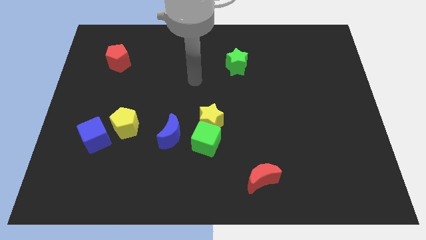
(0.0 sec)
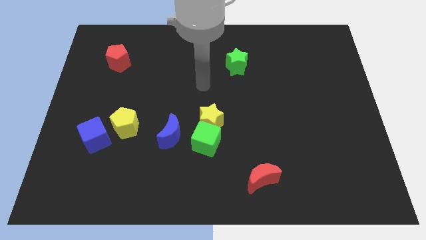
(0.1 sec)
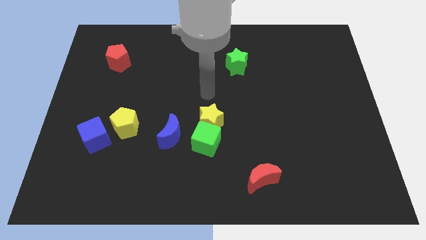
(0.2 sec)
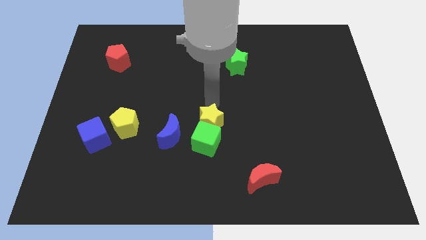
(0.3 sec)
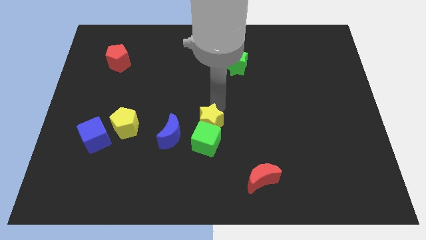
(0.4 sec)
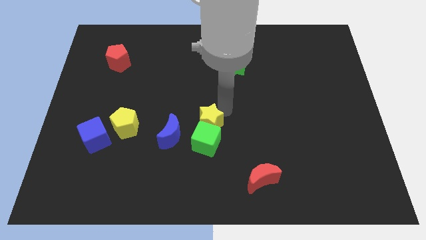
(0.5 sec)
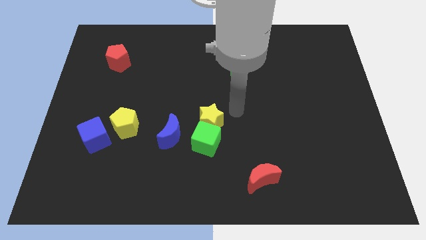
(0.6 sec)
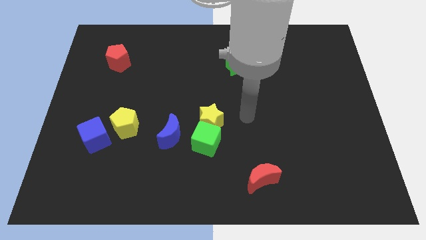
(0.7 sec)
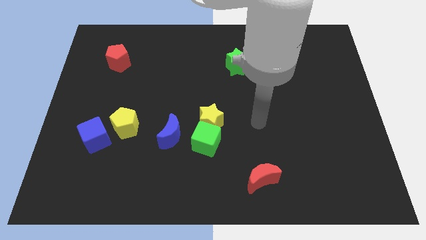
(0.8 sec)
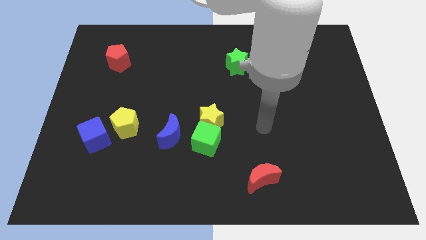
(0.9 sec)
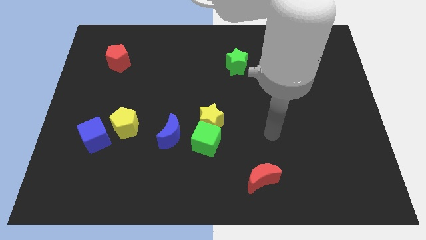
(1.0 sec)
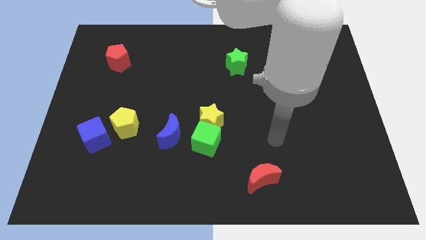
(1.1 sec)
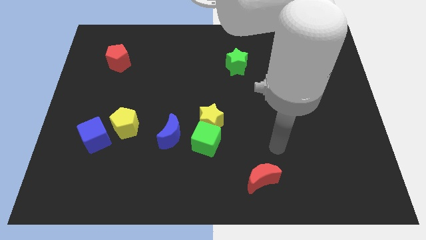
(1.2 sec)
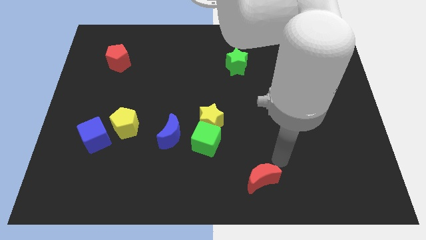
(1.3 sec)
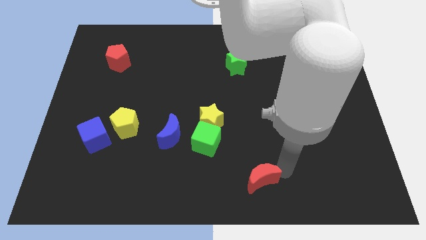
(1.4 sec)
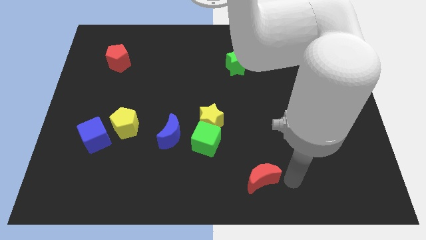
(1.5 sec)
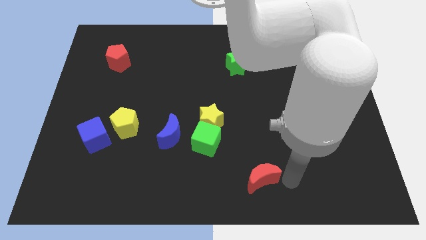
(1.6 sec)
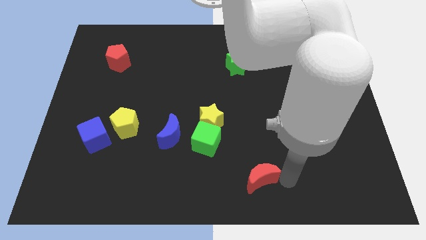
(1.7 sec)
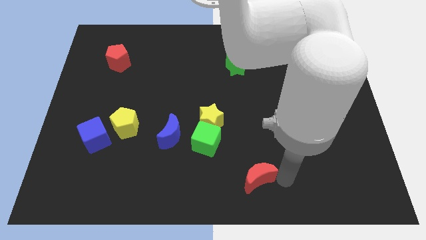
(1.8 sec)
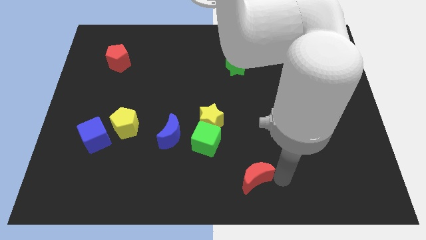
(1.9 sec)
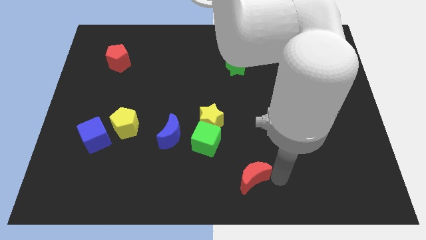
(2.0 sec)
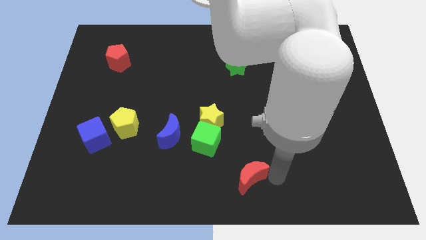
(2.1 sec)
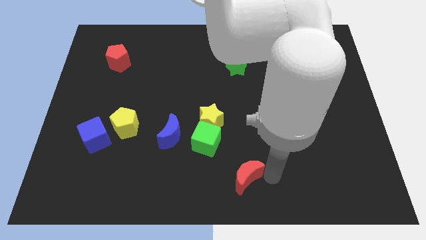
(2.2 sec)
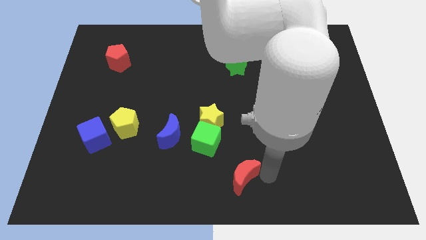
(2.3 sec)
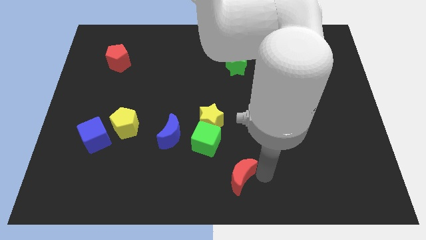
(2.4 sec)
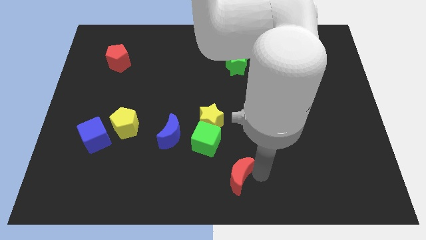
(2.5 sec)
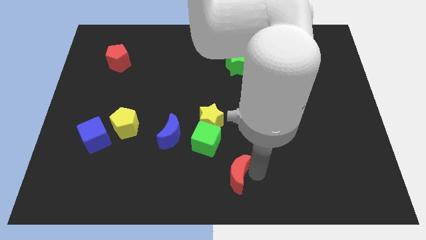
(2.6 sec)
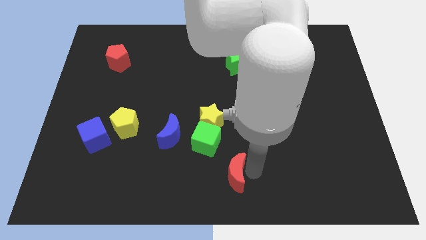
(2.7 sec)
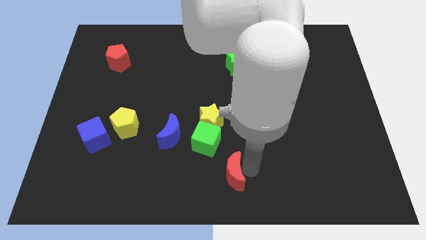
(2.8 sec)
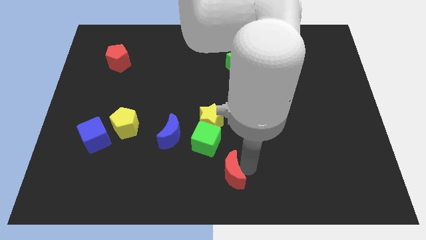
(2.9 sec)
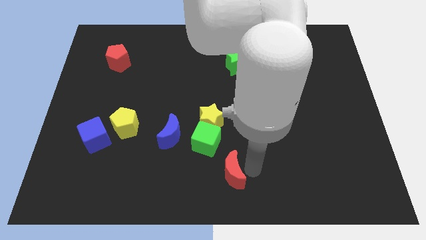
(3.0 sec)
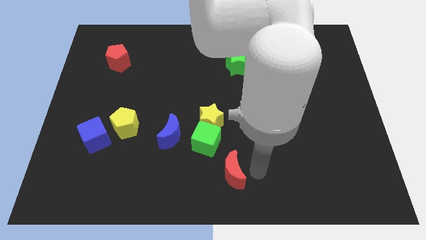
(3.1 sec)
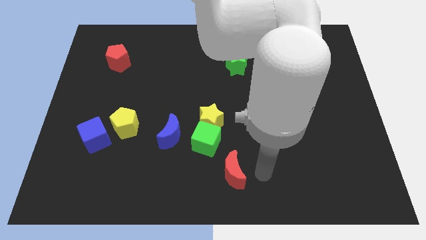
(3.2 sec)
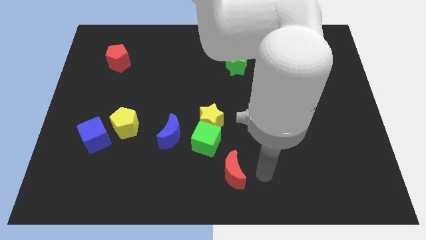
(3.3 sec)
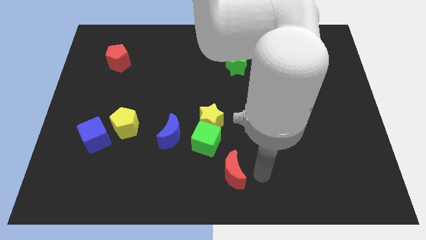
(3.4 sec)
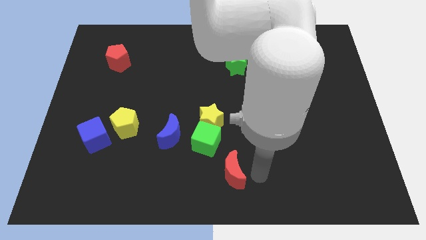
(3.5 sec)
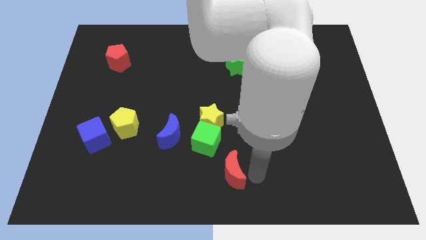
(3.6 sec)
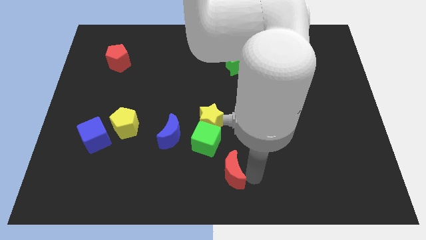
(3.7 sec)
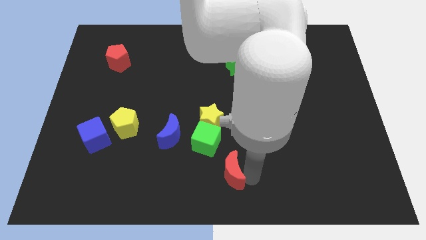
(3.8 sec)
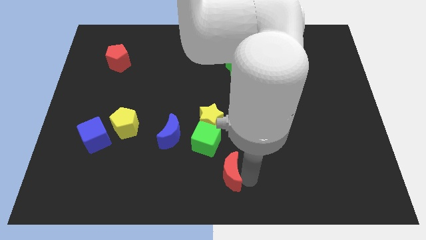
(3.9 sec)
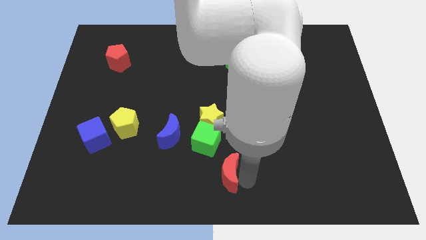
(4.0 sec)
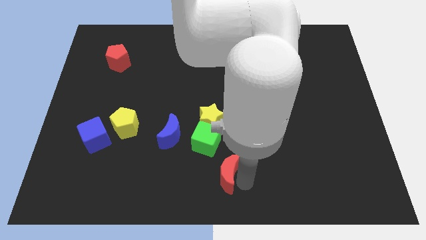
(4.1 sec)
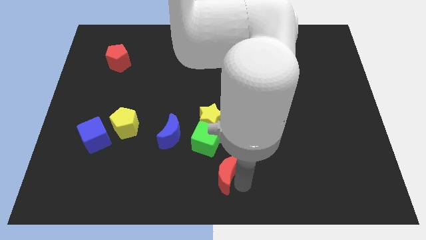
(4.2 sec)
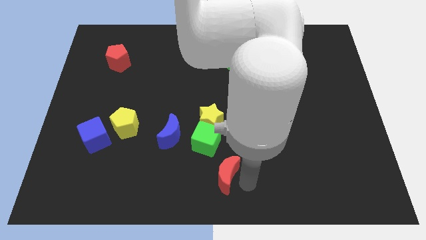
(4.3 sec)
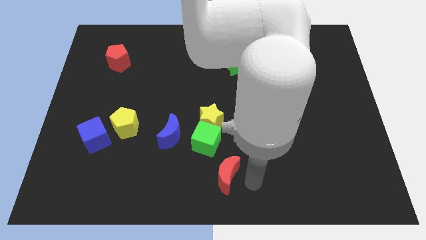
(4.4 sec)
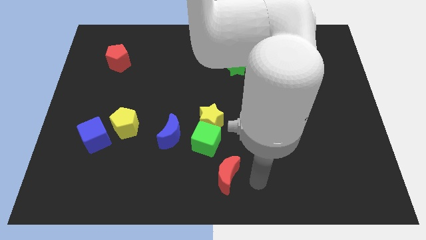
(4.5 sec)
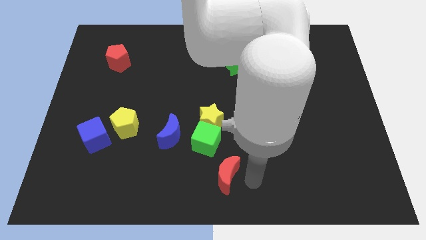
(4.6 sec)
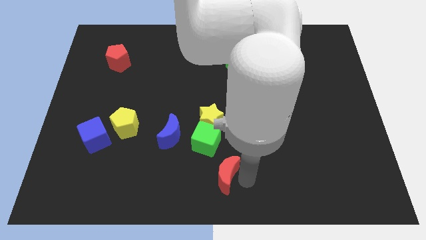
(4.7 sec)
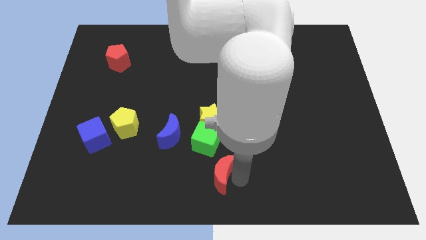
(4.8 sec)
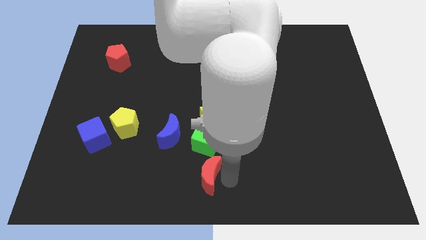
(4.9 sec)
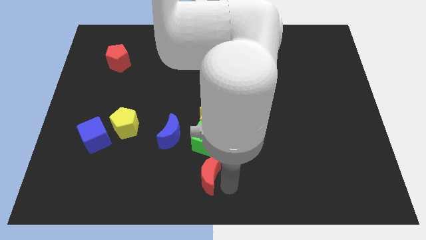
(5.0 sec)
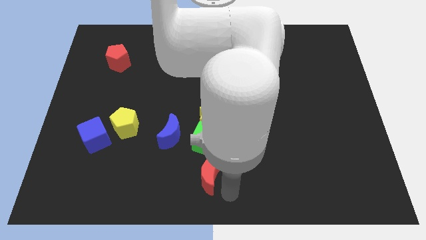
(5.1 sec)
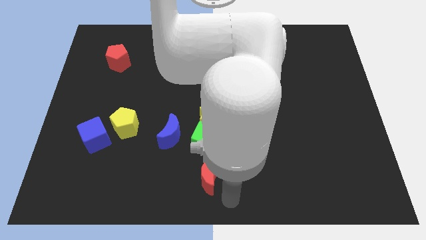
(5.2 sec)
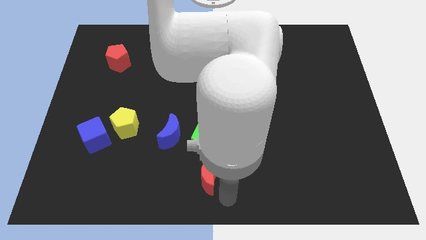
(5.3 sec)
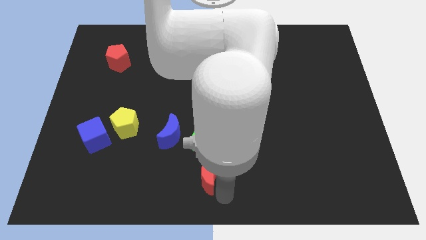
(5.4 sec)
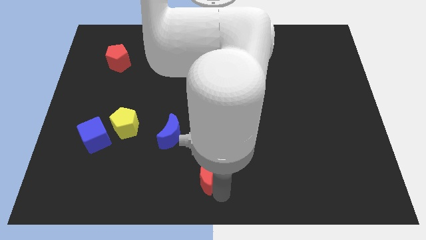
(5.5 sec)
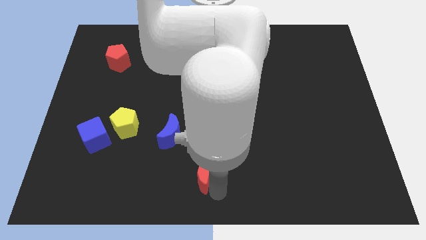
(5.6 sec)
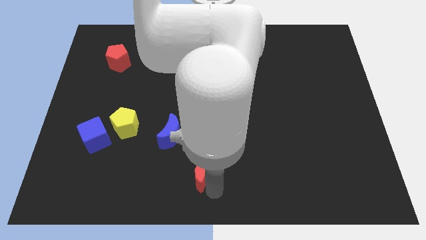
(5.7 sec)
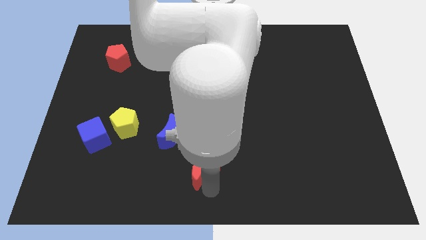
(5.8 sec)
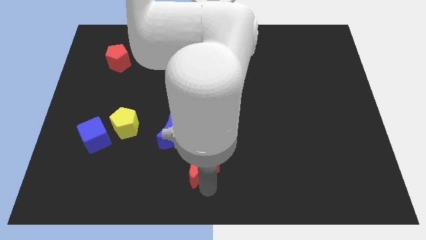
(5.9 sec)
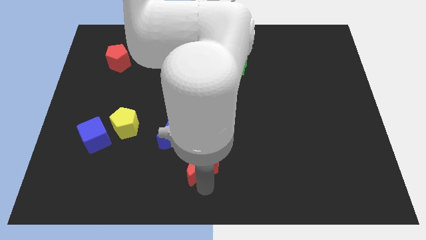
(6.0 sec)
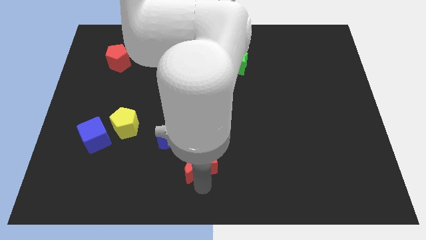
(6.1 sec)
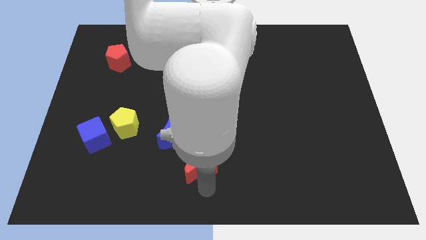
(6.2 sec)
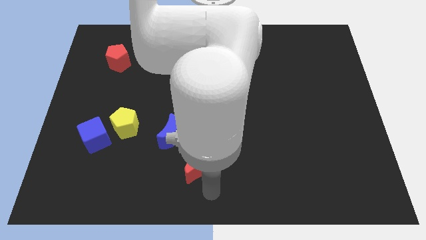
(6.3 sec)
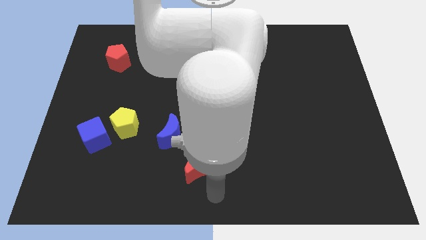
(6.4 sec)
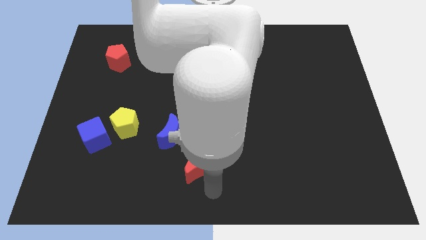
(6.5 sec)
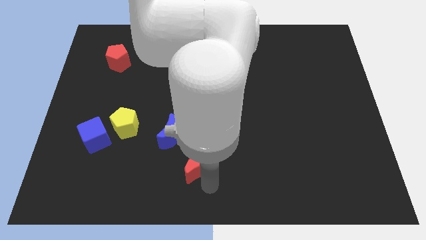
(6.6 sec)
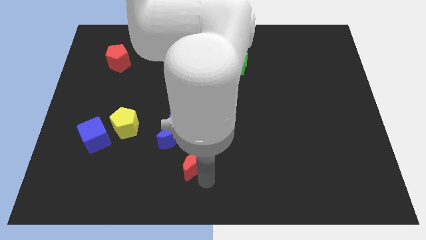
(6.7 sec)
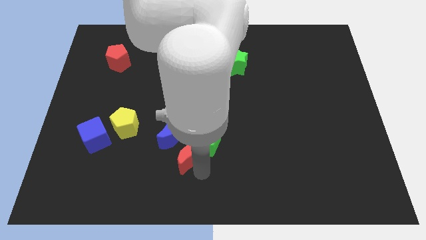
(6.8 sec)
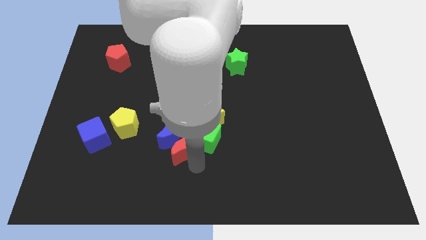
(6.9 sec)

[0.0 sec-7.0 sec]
put the red moon next to the blue moon

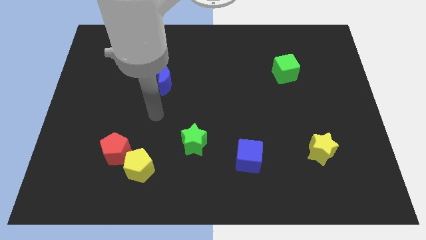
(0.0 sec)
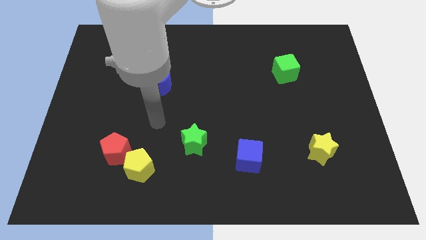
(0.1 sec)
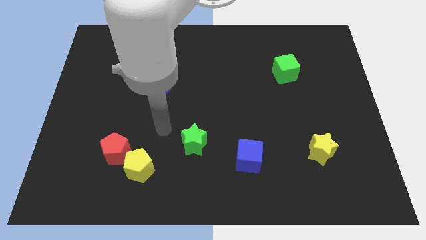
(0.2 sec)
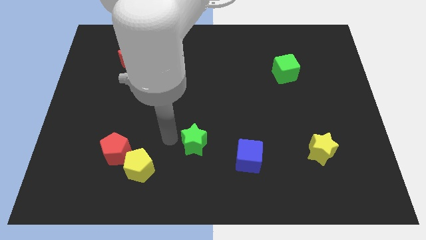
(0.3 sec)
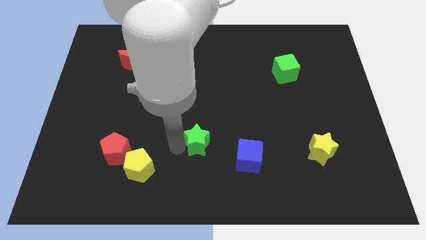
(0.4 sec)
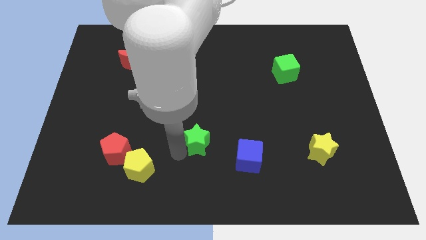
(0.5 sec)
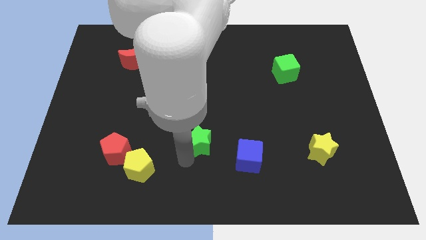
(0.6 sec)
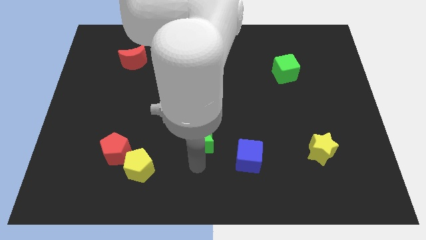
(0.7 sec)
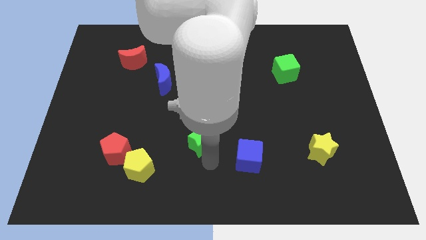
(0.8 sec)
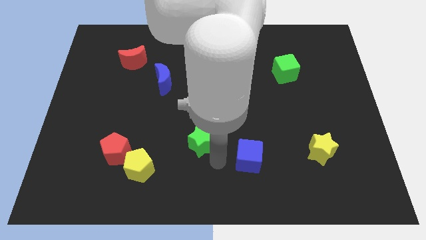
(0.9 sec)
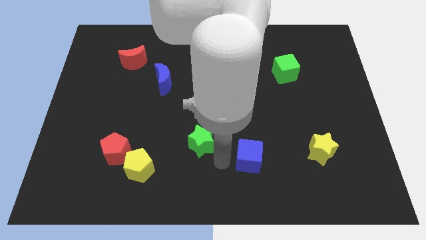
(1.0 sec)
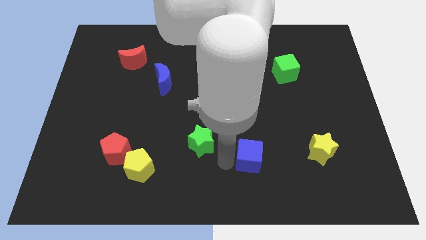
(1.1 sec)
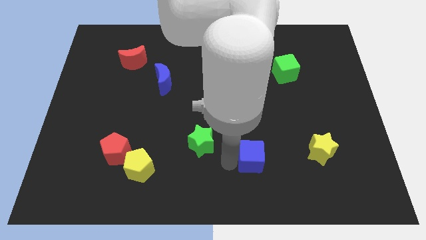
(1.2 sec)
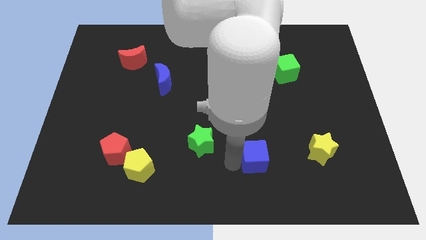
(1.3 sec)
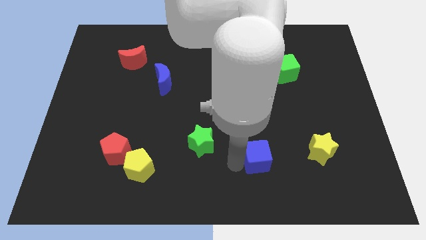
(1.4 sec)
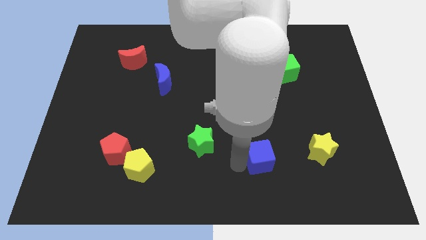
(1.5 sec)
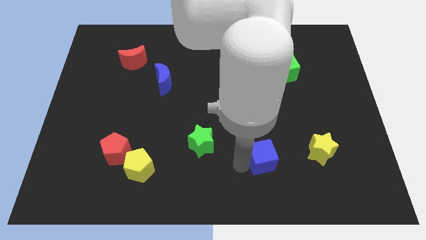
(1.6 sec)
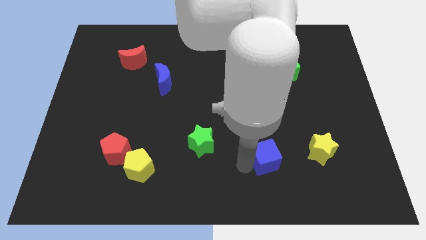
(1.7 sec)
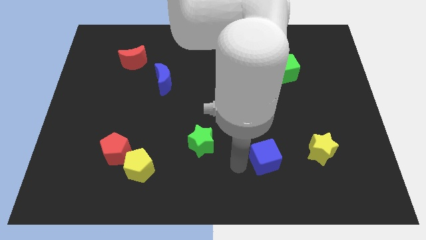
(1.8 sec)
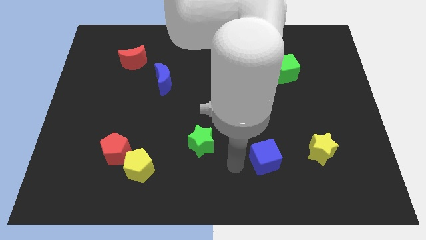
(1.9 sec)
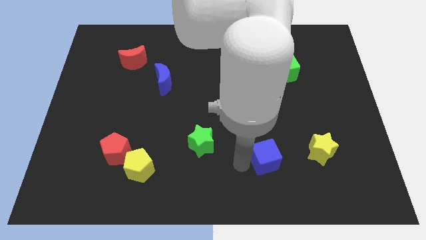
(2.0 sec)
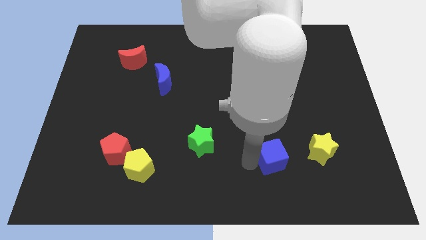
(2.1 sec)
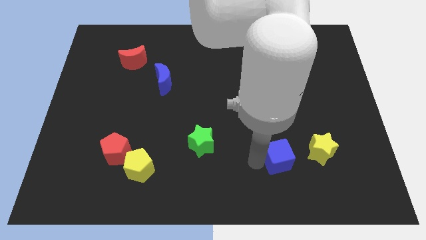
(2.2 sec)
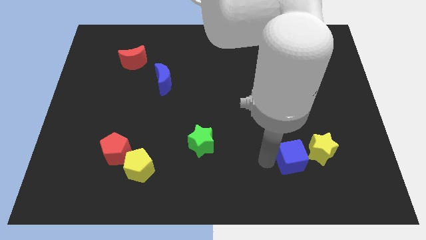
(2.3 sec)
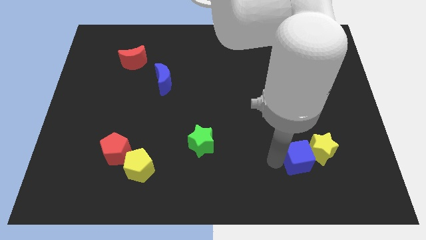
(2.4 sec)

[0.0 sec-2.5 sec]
put the blue cube next to the yellow star
